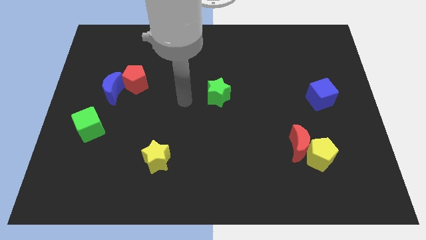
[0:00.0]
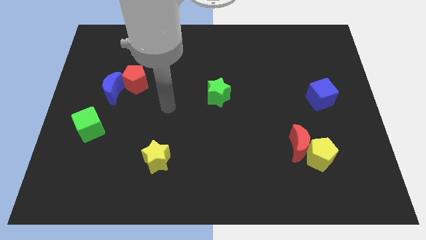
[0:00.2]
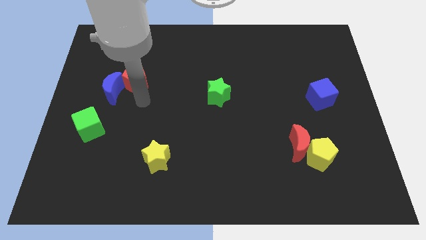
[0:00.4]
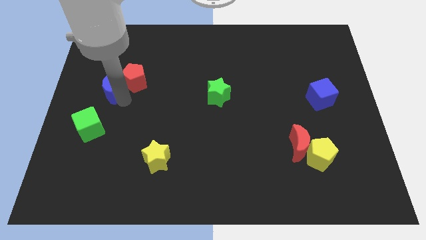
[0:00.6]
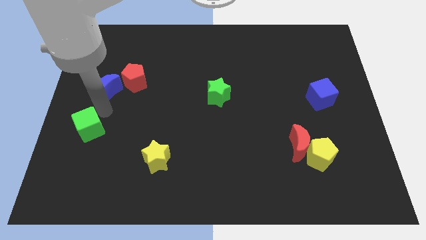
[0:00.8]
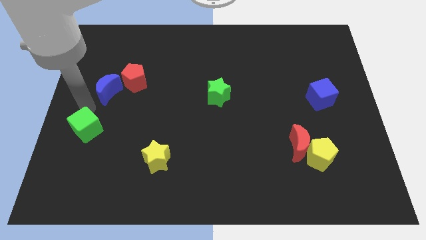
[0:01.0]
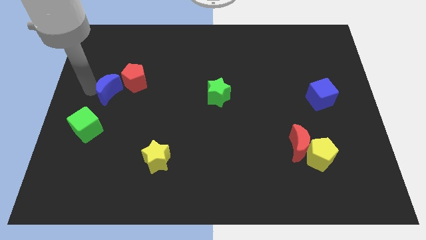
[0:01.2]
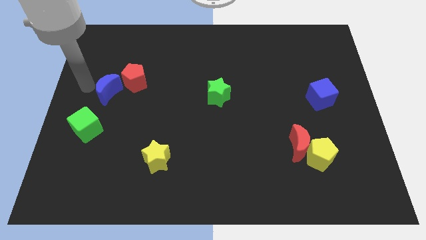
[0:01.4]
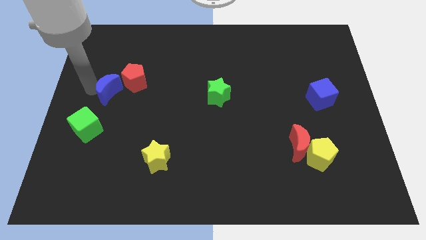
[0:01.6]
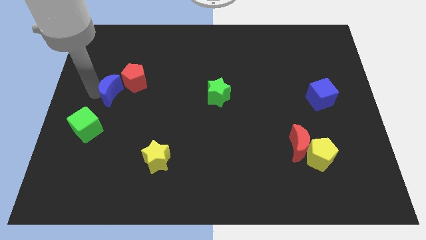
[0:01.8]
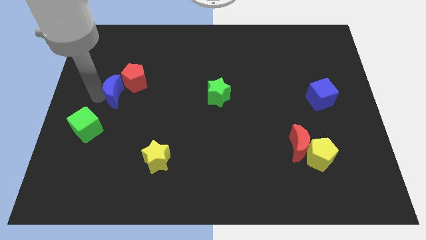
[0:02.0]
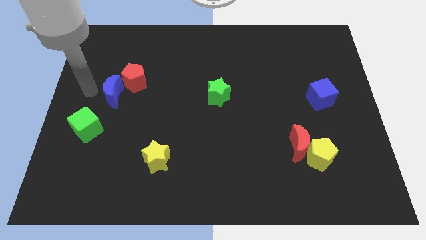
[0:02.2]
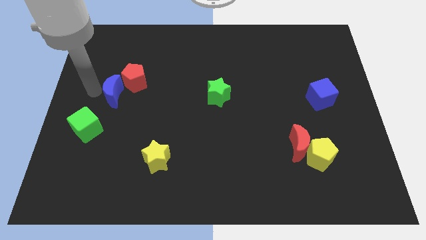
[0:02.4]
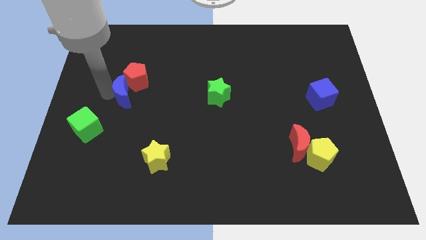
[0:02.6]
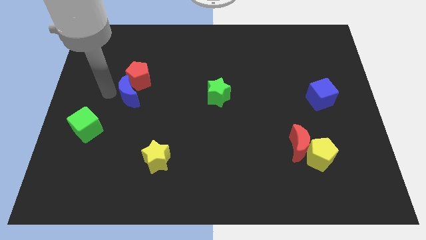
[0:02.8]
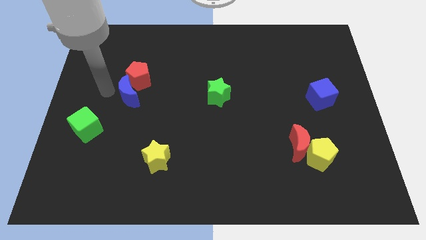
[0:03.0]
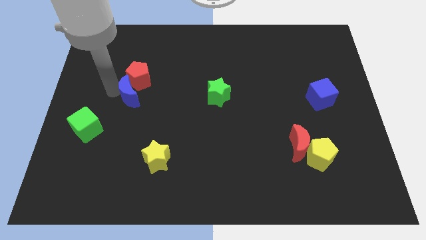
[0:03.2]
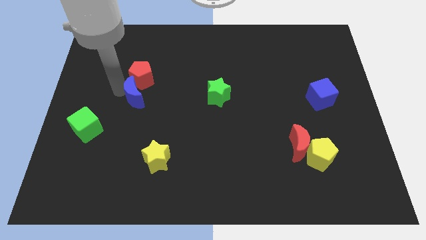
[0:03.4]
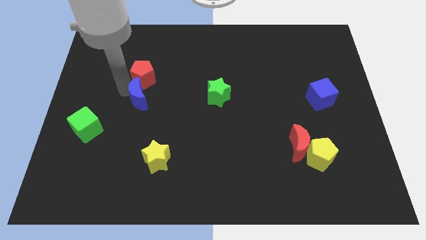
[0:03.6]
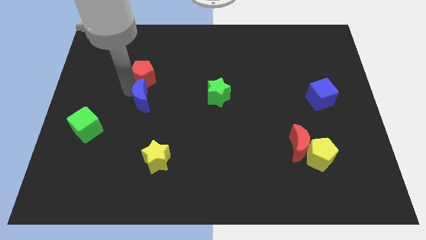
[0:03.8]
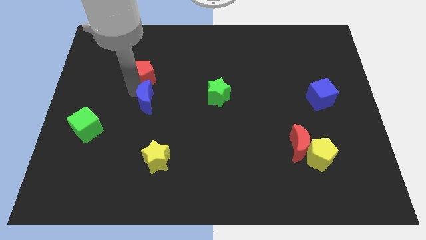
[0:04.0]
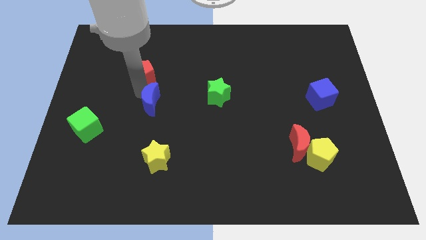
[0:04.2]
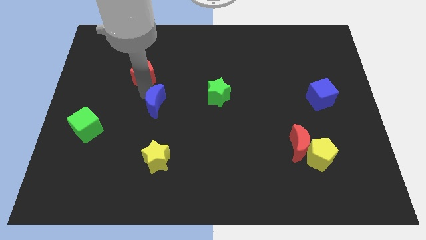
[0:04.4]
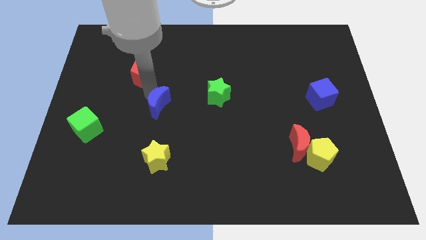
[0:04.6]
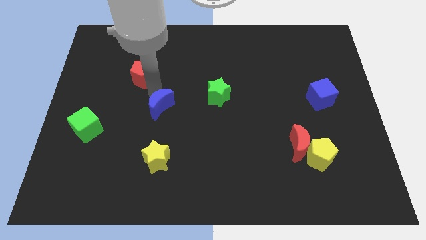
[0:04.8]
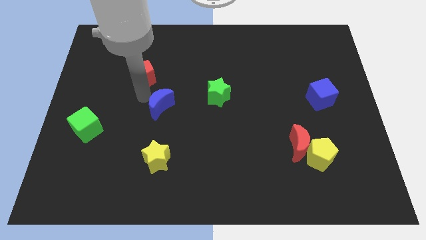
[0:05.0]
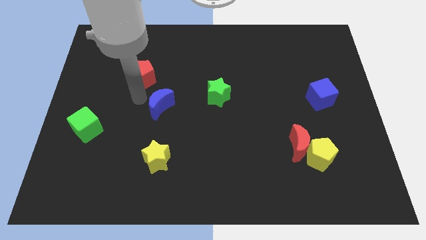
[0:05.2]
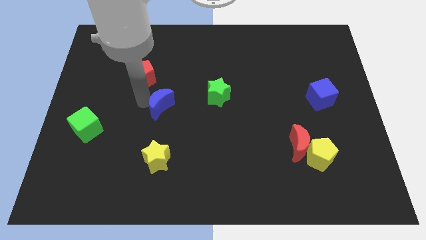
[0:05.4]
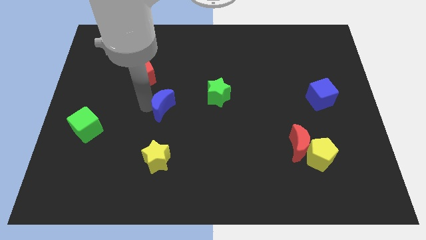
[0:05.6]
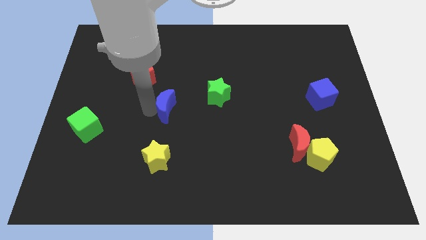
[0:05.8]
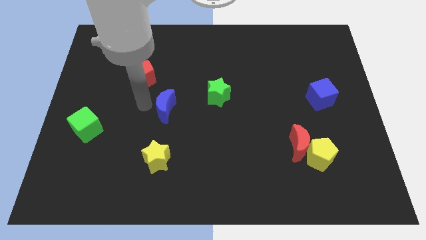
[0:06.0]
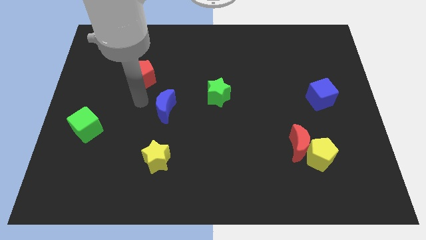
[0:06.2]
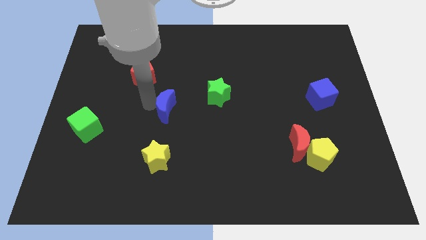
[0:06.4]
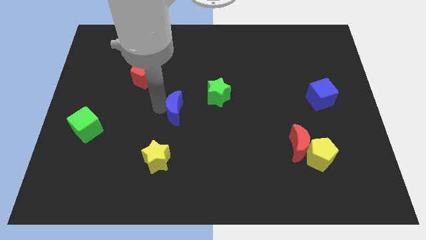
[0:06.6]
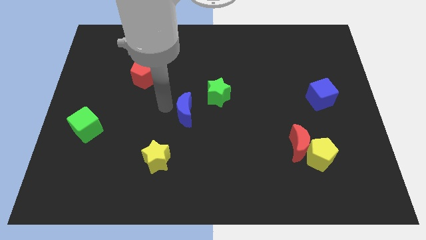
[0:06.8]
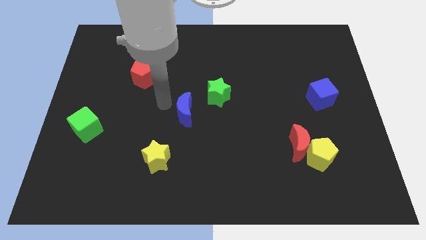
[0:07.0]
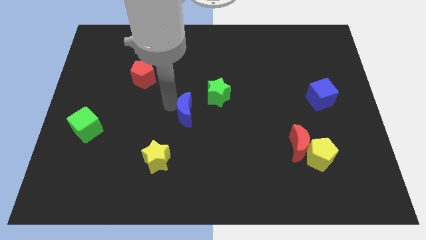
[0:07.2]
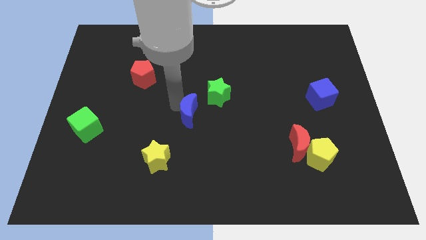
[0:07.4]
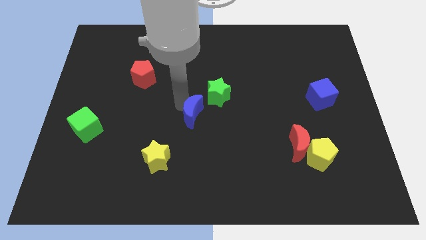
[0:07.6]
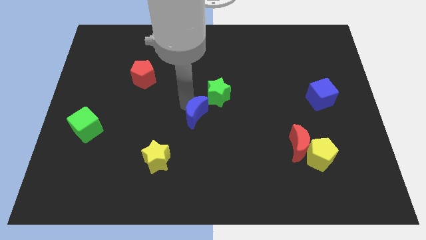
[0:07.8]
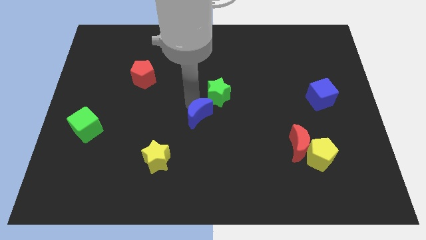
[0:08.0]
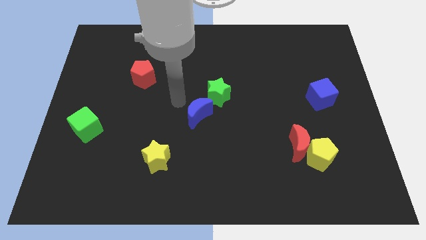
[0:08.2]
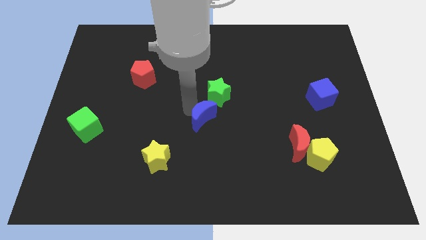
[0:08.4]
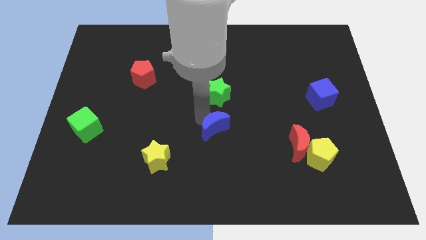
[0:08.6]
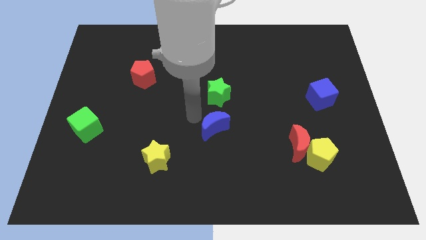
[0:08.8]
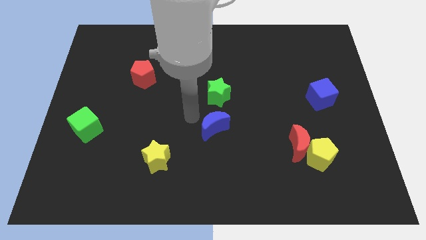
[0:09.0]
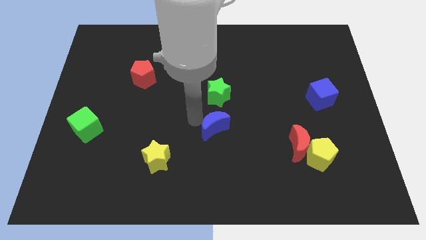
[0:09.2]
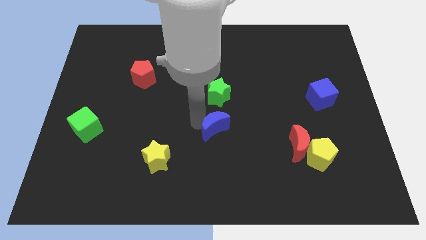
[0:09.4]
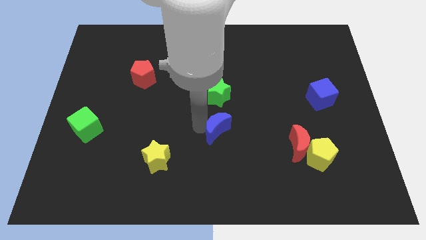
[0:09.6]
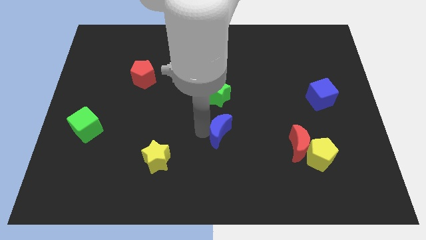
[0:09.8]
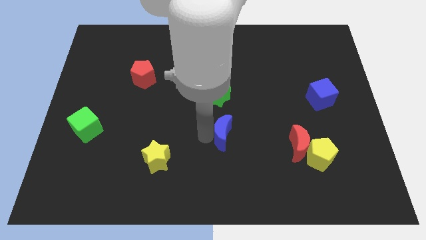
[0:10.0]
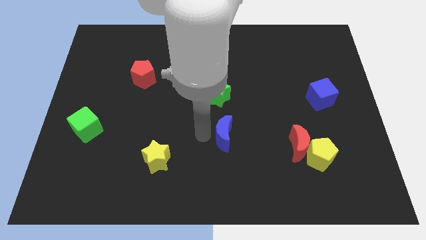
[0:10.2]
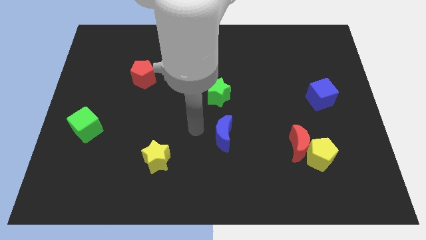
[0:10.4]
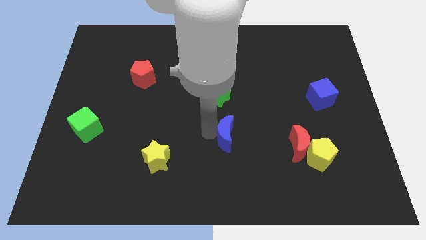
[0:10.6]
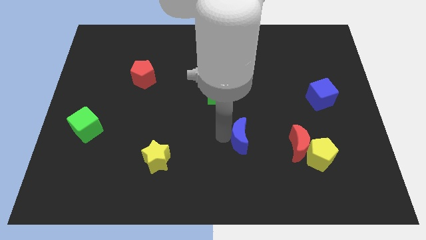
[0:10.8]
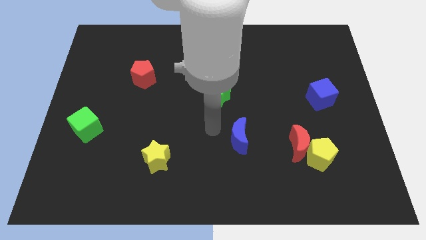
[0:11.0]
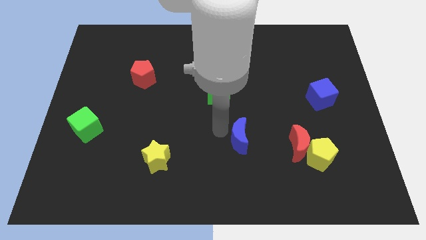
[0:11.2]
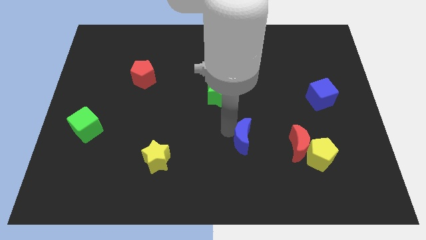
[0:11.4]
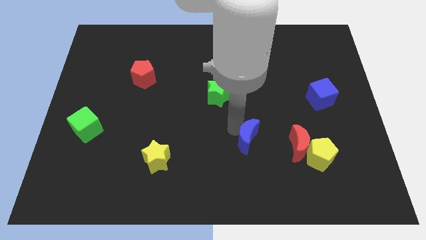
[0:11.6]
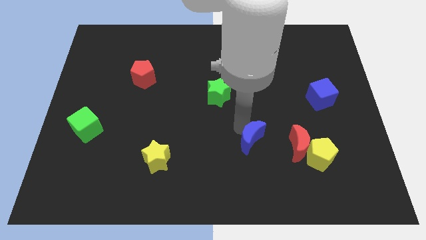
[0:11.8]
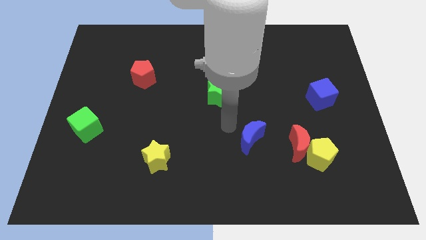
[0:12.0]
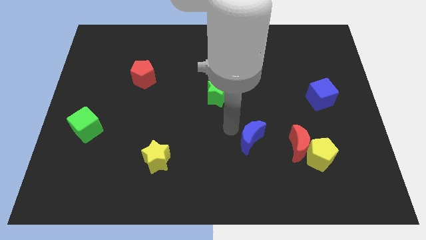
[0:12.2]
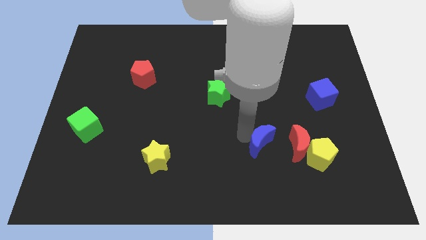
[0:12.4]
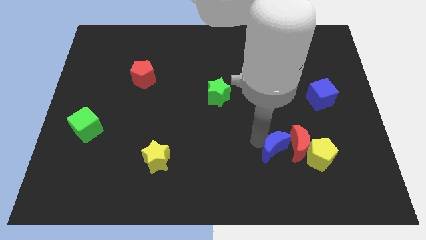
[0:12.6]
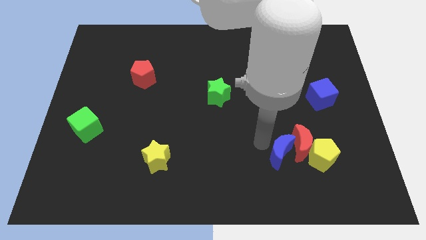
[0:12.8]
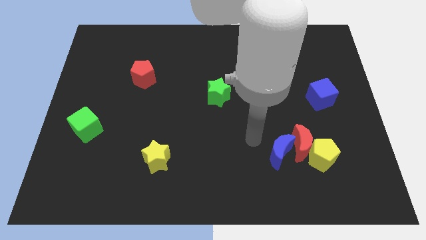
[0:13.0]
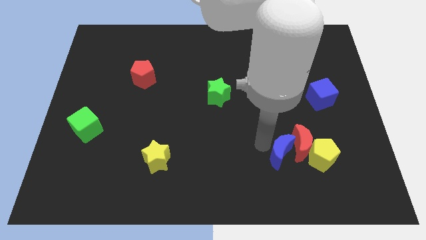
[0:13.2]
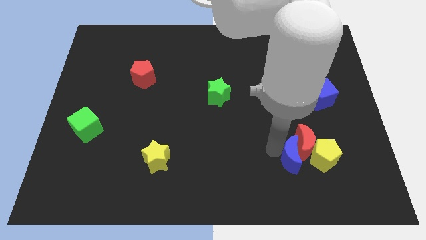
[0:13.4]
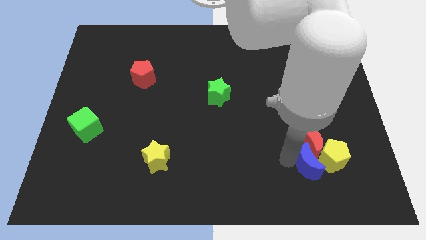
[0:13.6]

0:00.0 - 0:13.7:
put the blue moon to the yellow pentagon
